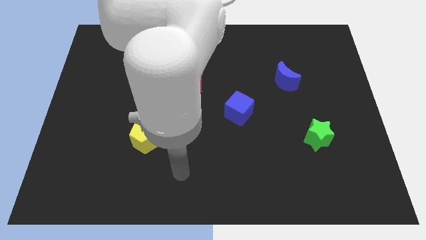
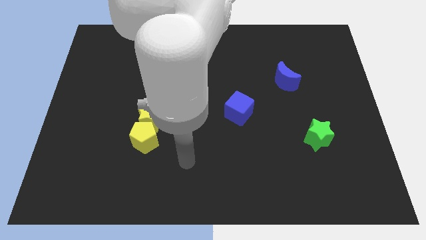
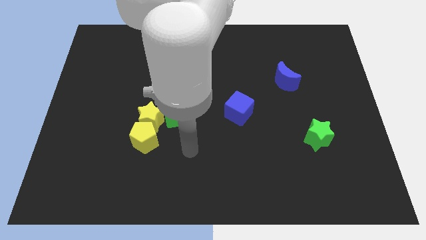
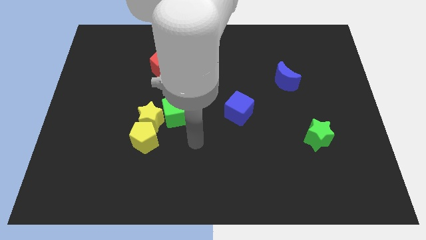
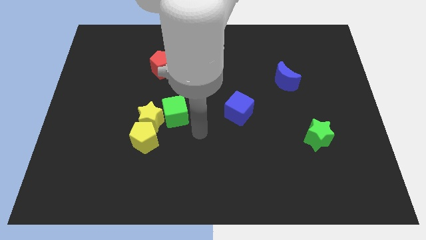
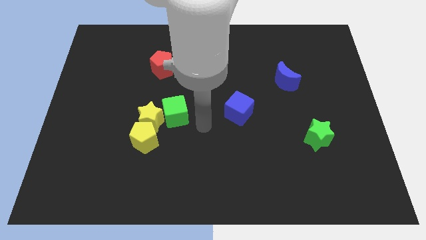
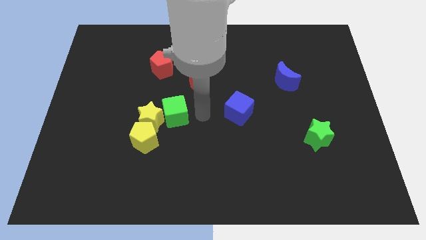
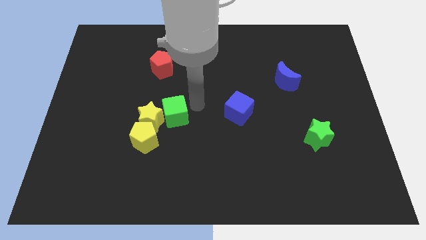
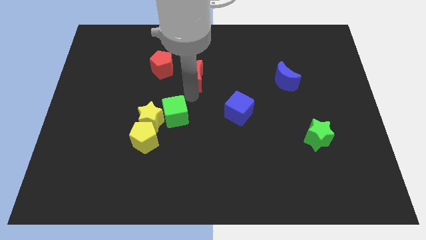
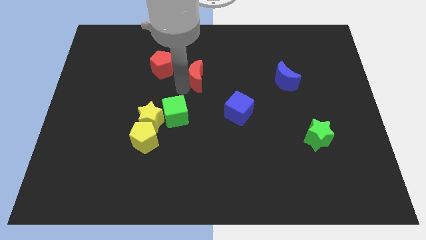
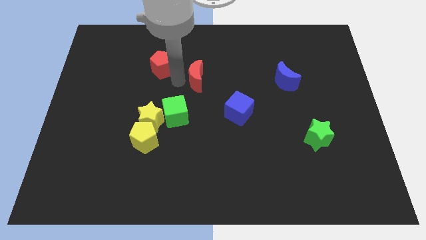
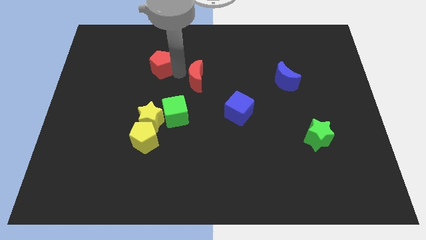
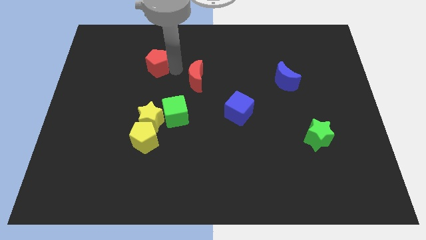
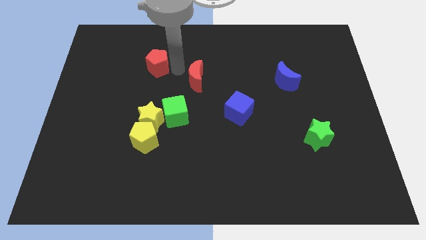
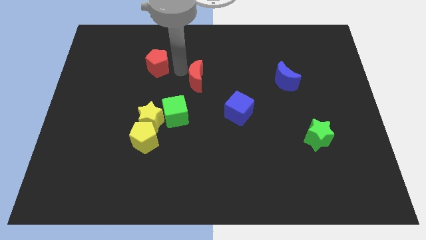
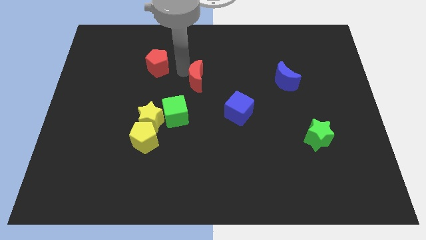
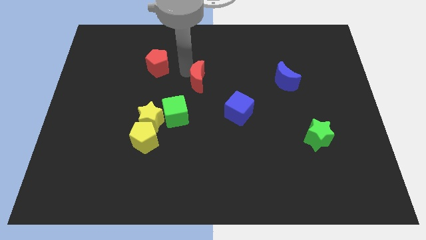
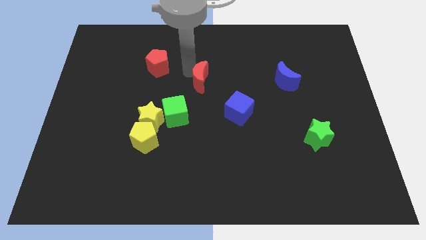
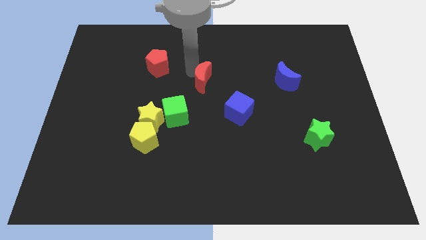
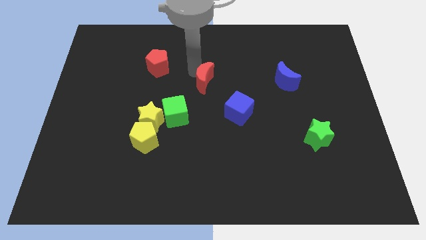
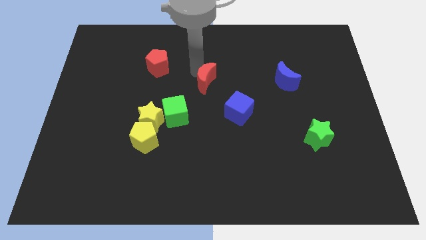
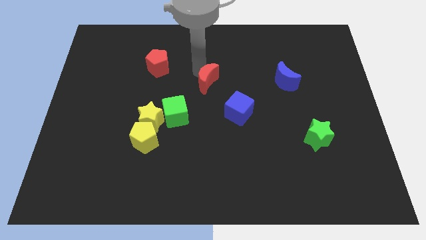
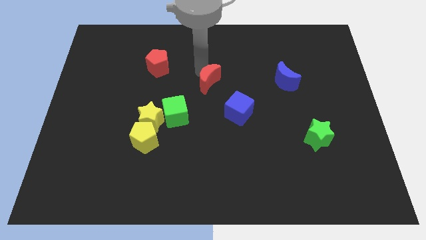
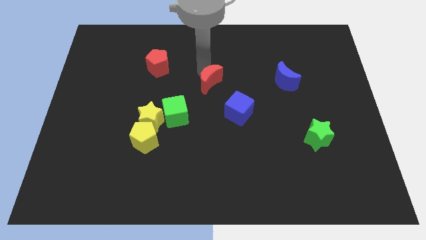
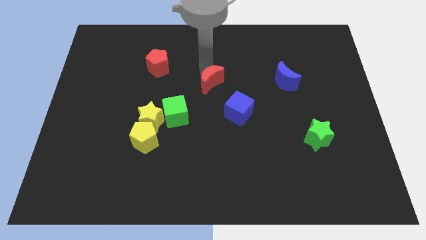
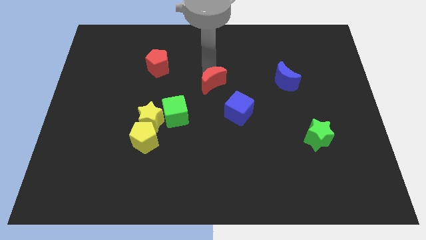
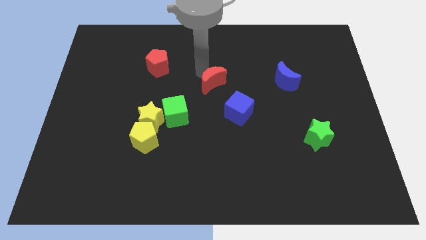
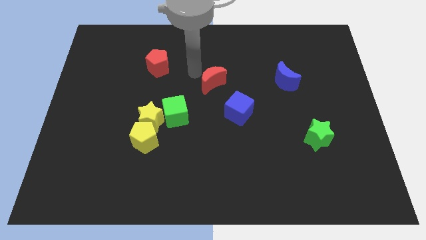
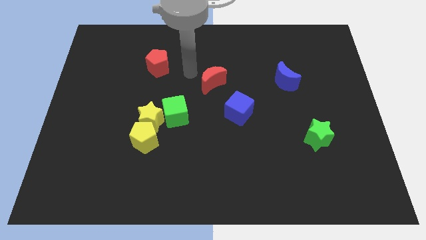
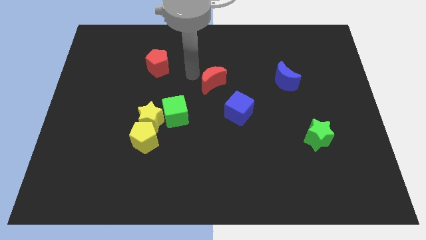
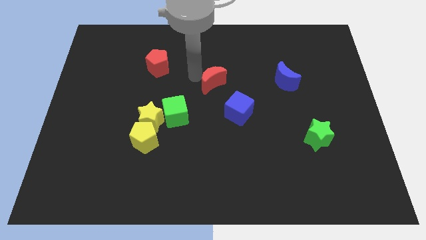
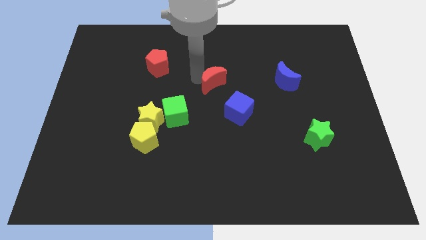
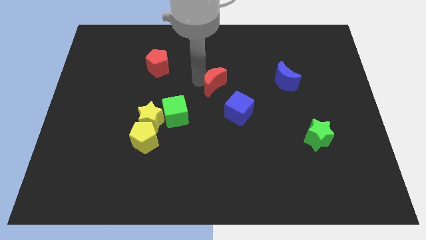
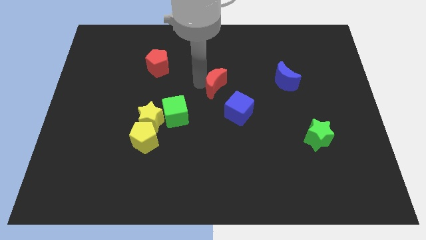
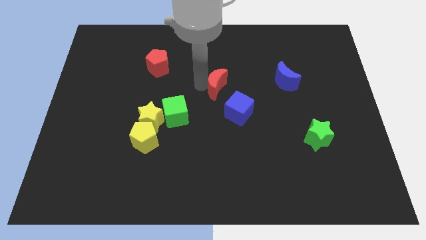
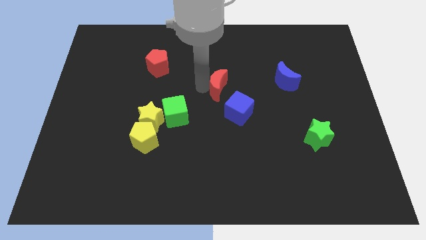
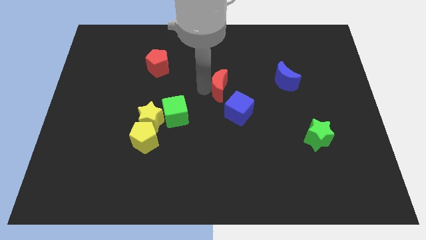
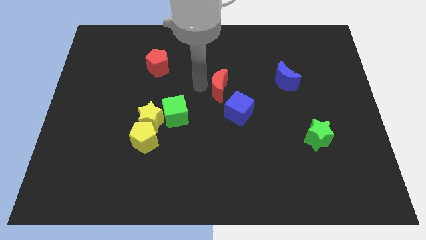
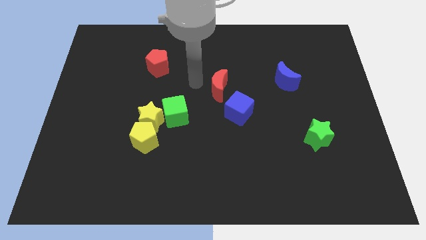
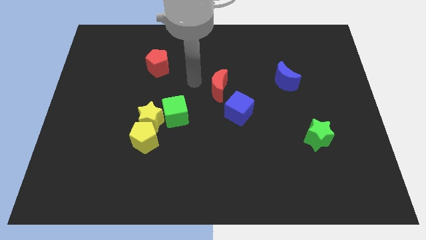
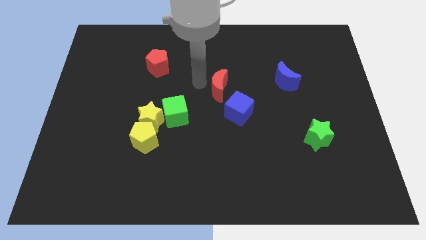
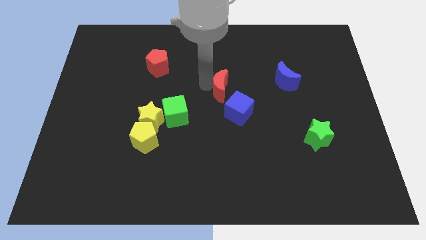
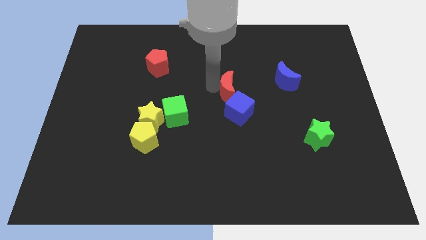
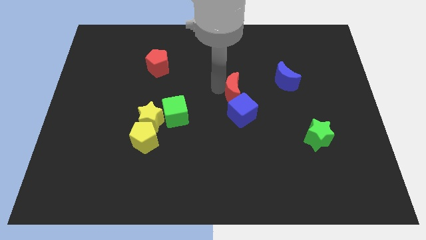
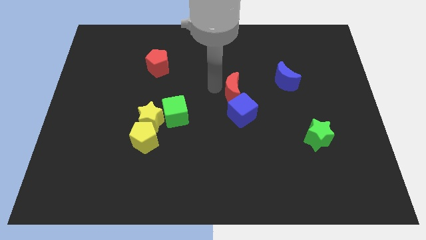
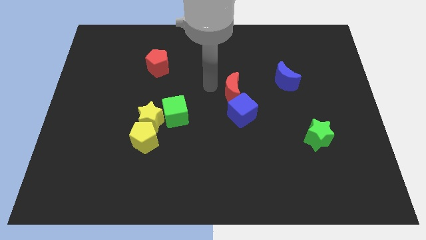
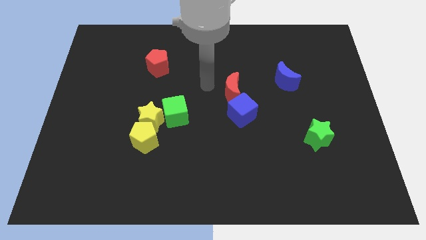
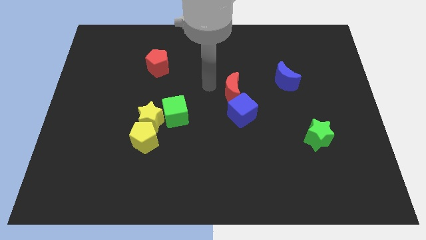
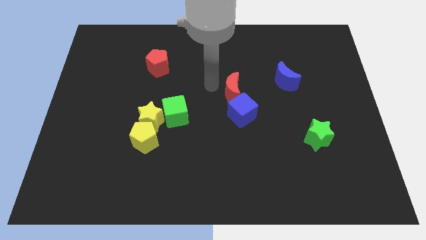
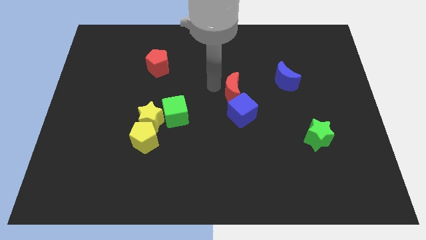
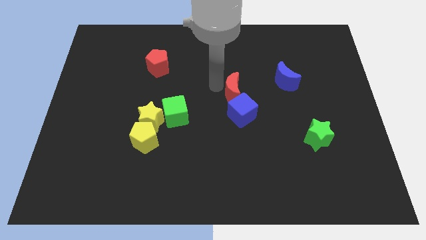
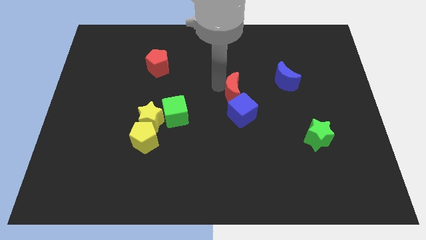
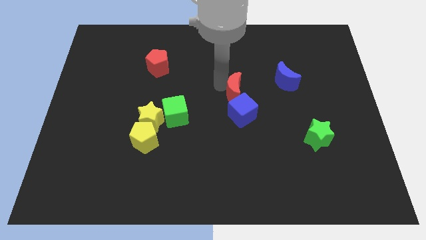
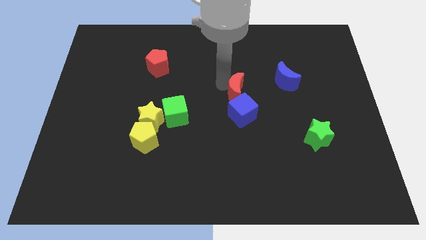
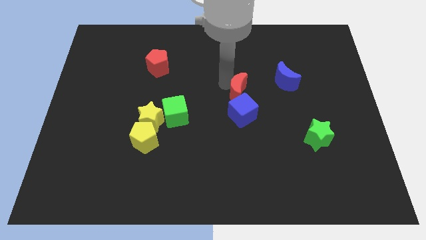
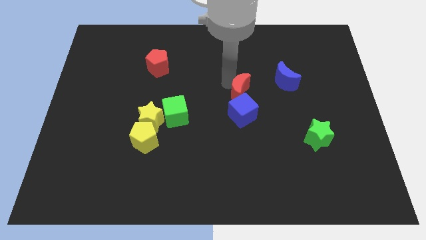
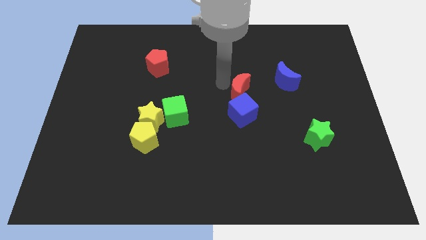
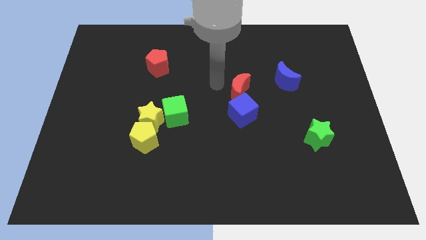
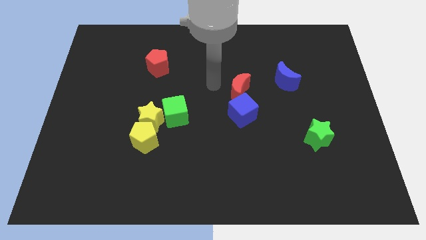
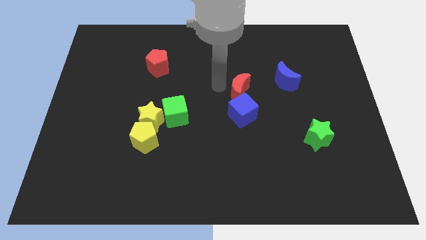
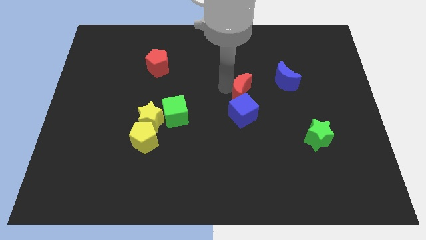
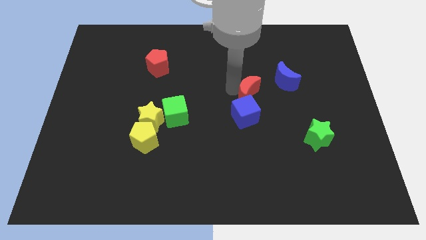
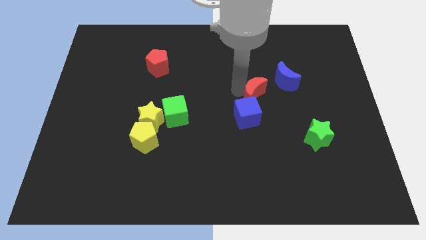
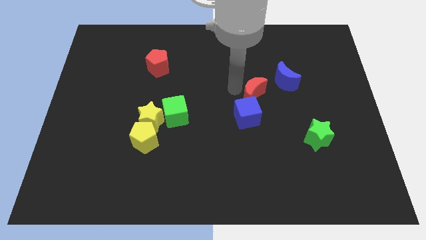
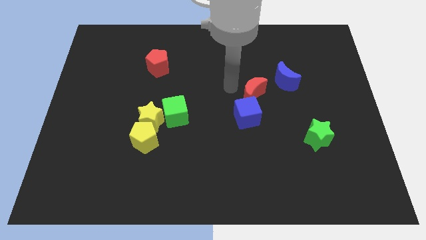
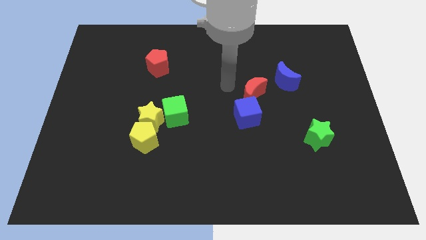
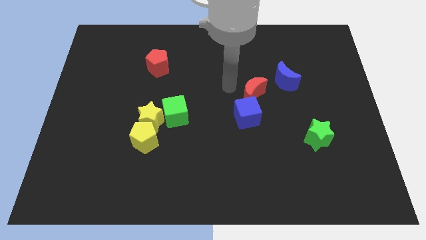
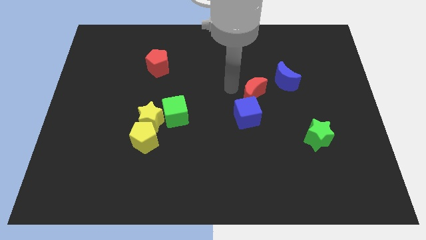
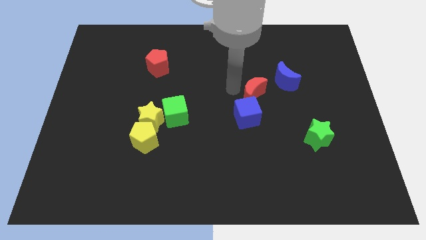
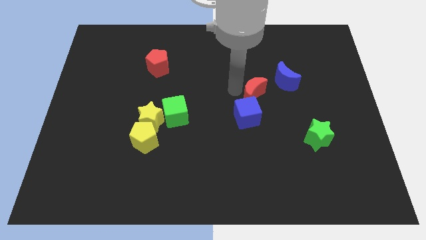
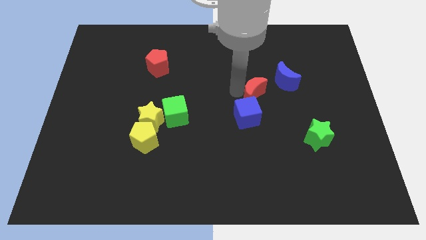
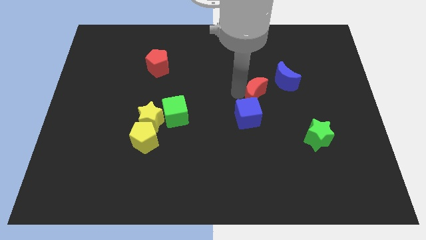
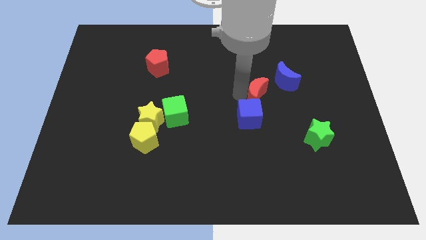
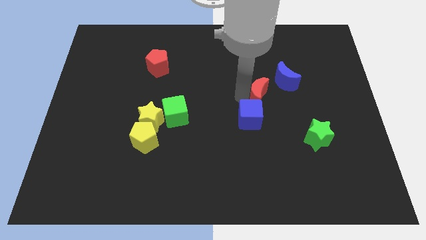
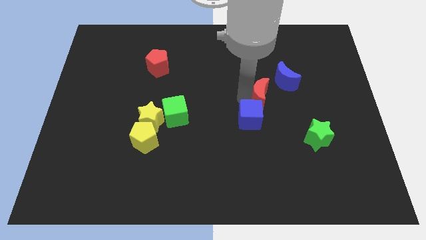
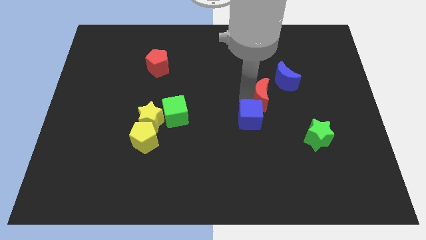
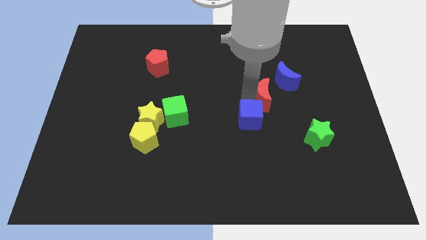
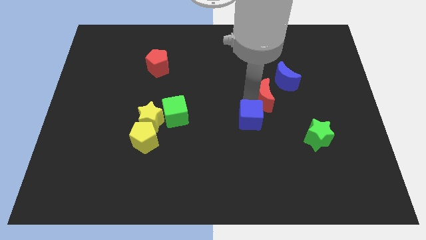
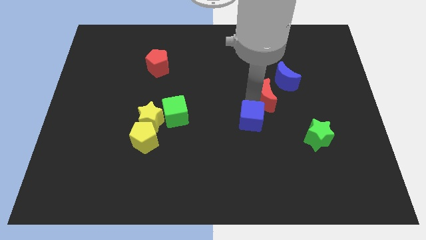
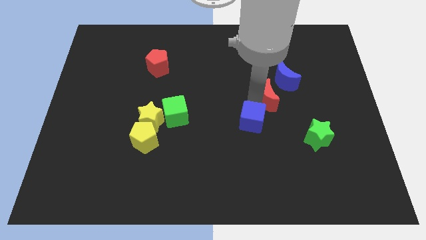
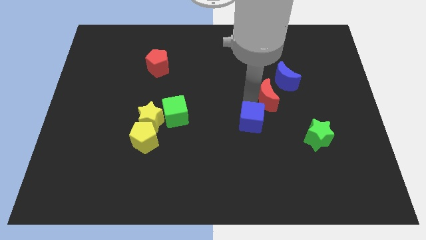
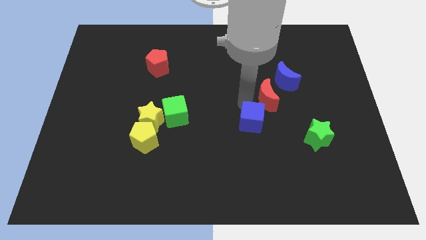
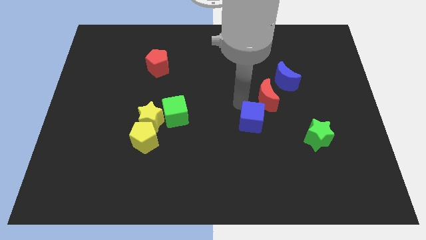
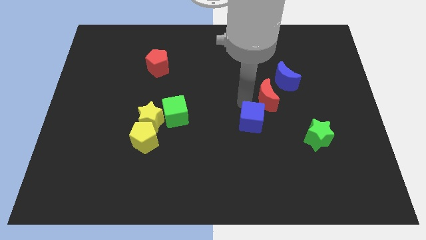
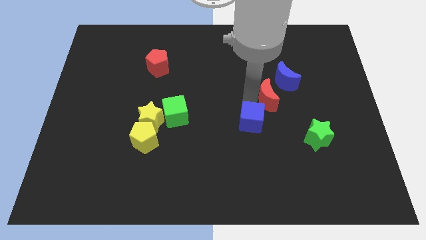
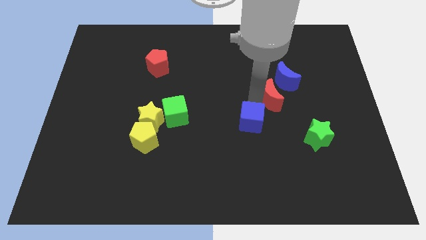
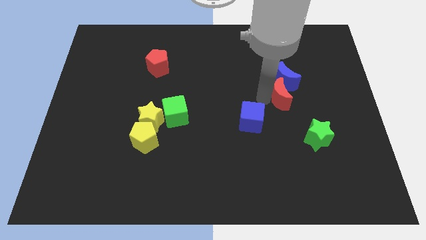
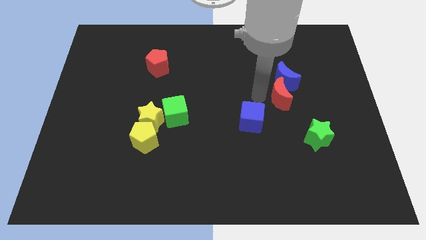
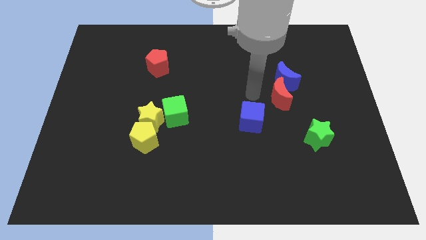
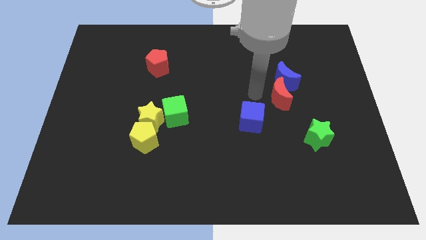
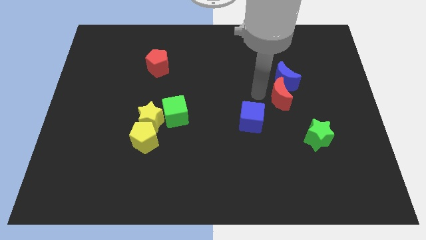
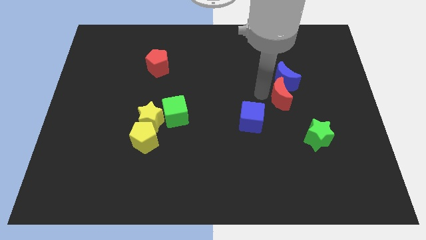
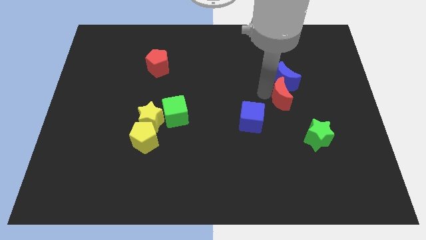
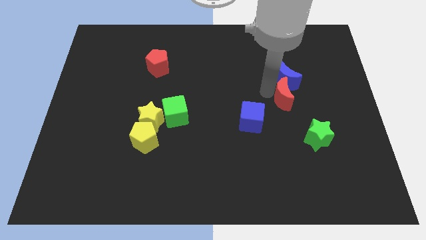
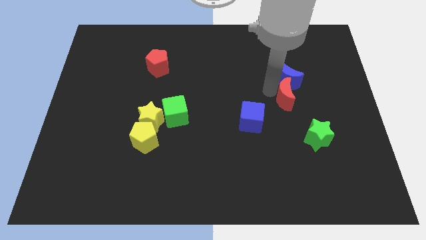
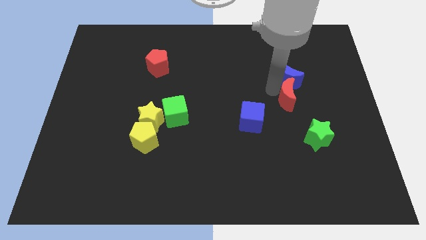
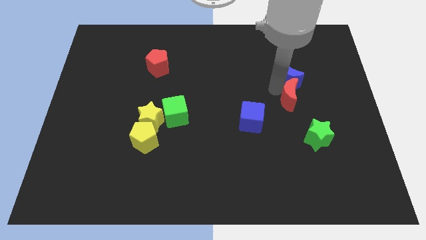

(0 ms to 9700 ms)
put the red moon above the green star
